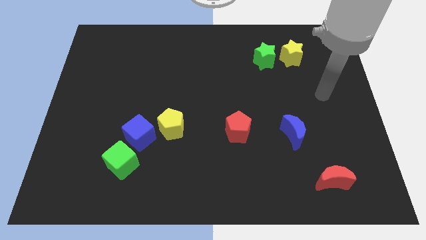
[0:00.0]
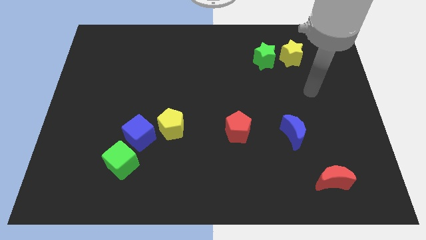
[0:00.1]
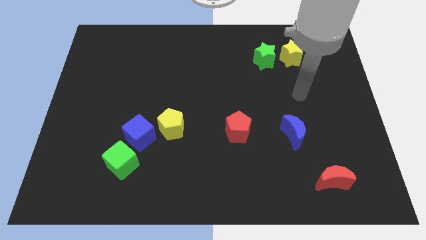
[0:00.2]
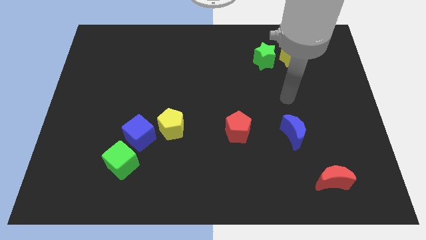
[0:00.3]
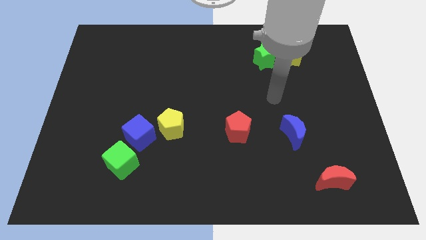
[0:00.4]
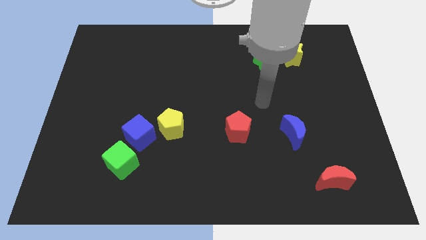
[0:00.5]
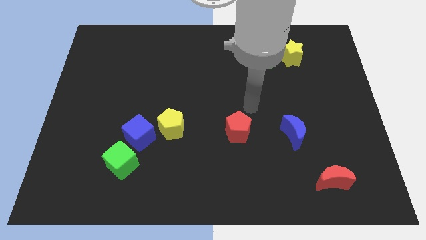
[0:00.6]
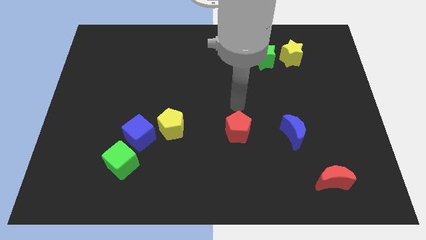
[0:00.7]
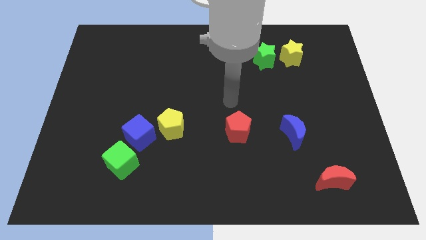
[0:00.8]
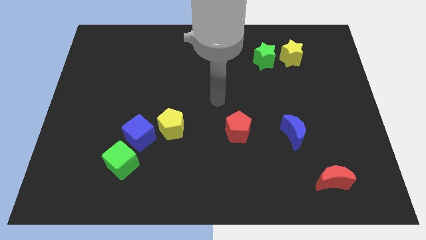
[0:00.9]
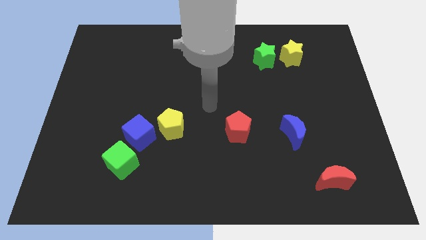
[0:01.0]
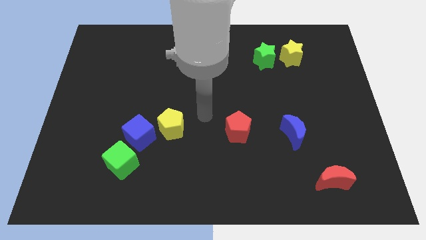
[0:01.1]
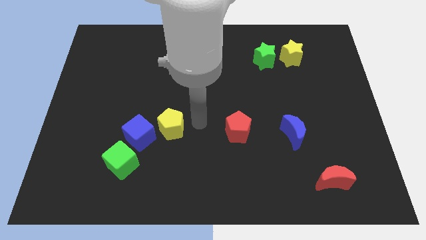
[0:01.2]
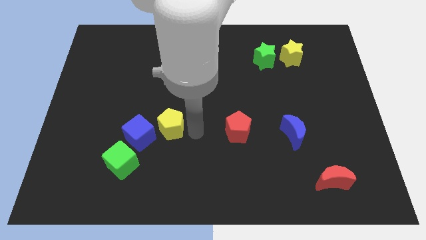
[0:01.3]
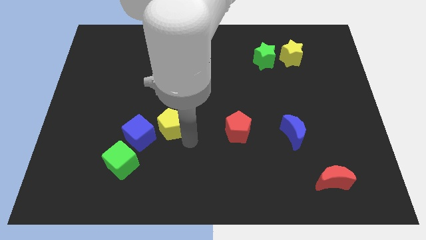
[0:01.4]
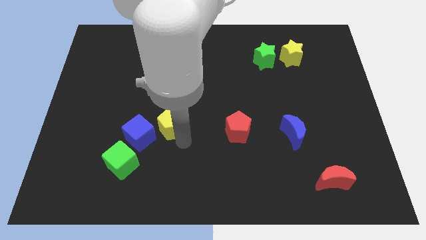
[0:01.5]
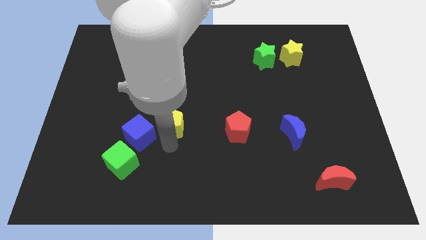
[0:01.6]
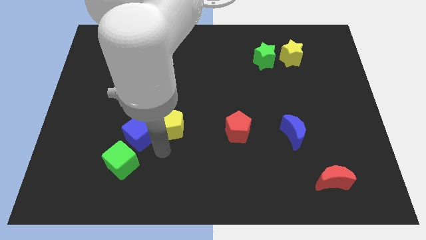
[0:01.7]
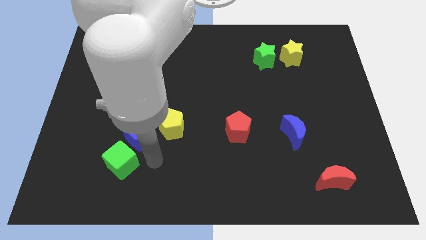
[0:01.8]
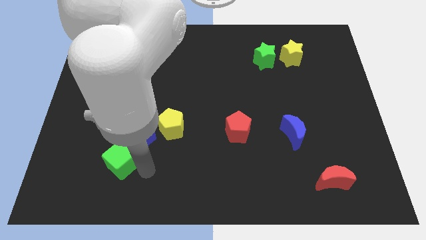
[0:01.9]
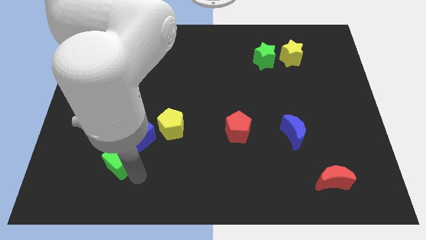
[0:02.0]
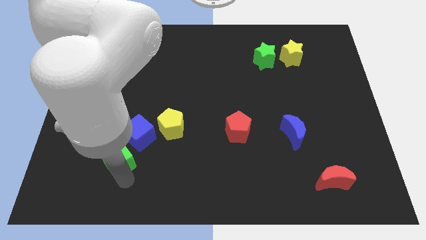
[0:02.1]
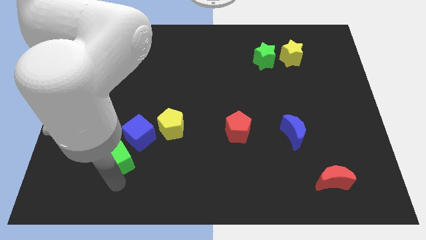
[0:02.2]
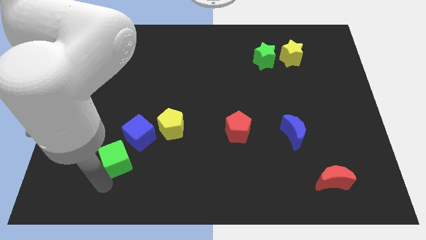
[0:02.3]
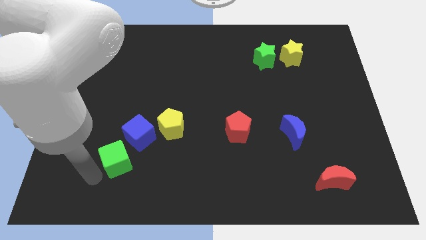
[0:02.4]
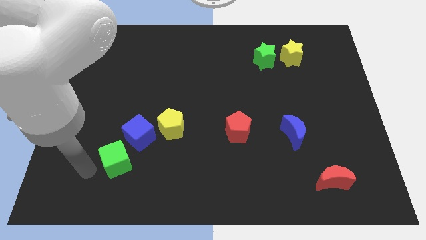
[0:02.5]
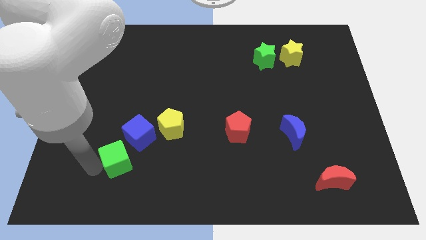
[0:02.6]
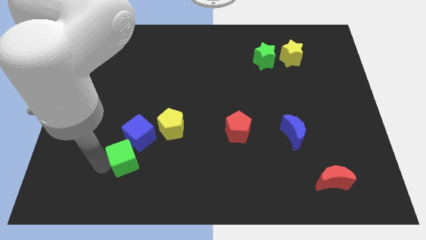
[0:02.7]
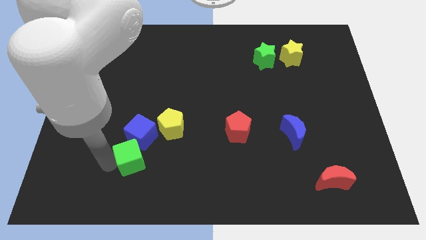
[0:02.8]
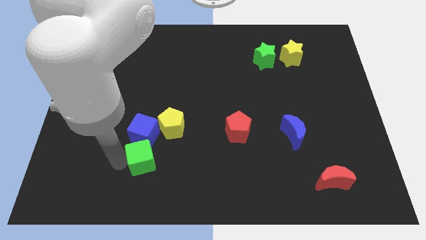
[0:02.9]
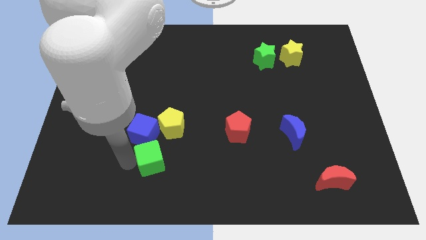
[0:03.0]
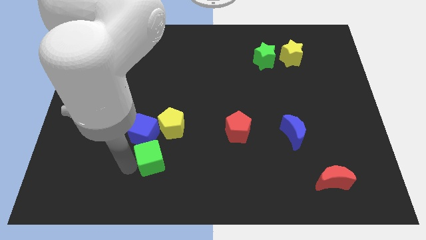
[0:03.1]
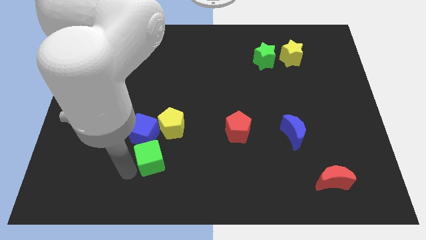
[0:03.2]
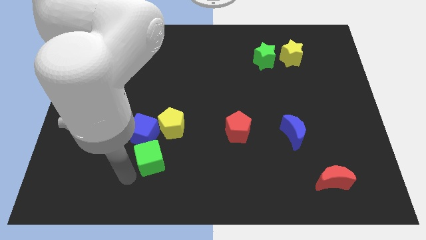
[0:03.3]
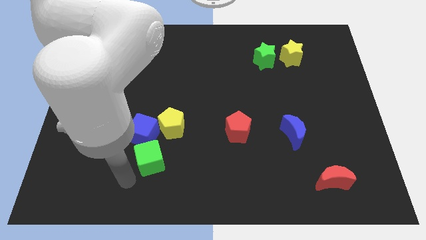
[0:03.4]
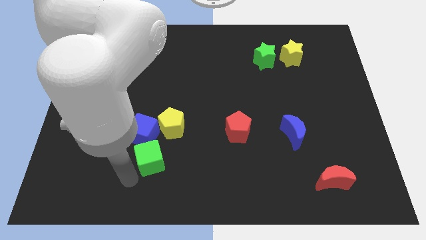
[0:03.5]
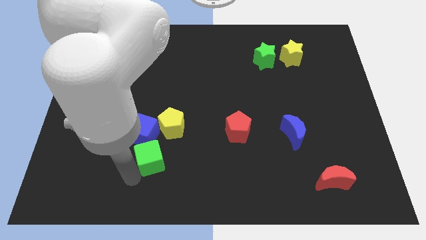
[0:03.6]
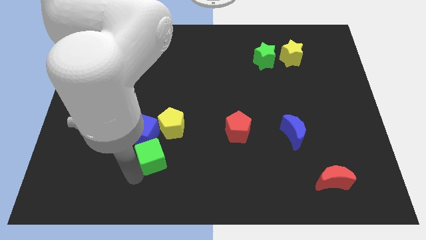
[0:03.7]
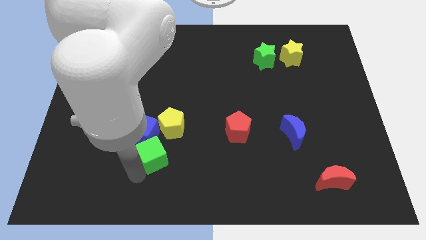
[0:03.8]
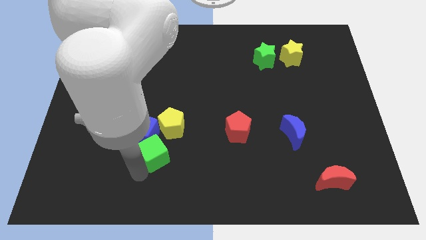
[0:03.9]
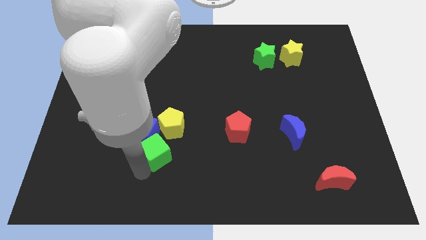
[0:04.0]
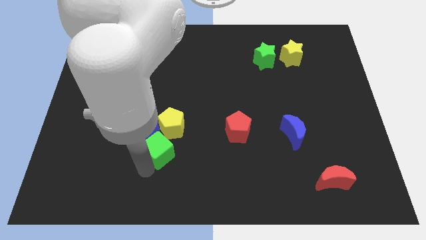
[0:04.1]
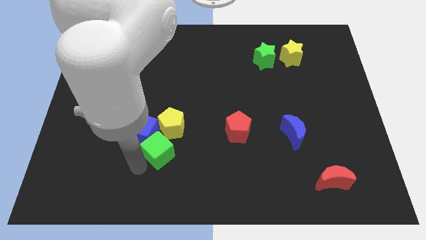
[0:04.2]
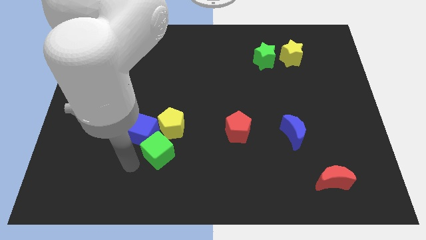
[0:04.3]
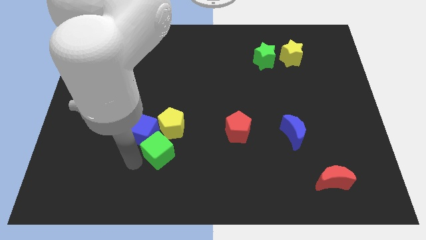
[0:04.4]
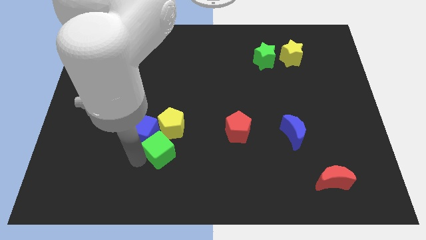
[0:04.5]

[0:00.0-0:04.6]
push the green cube a little upwards and then right

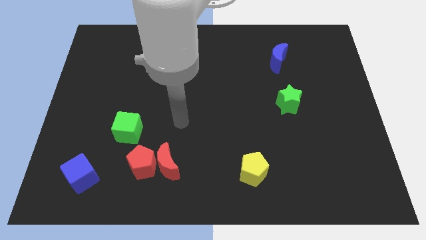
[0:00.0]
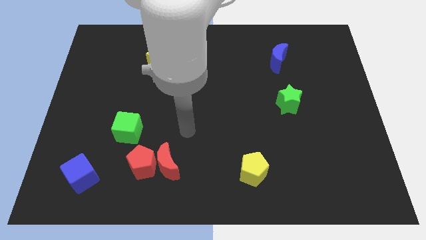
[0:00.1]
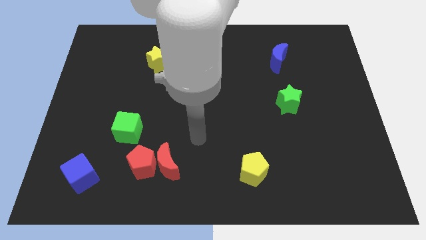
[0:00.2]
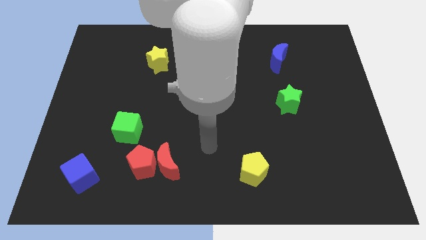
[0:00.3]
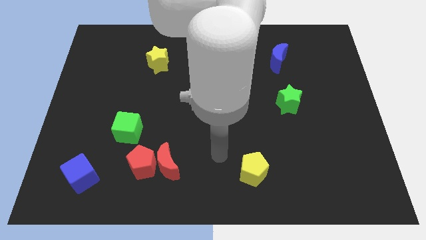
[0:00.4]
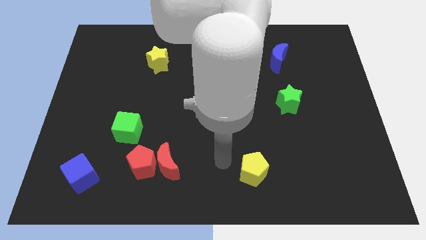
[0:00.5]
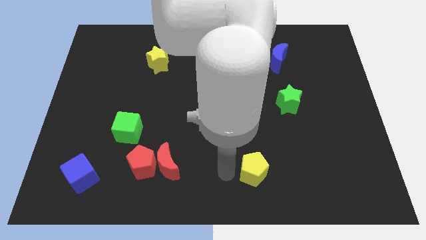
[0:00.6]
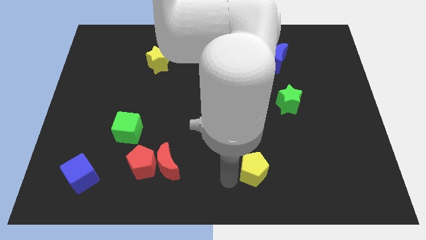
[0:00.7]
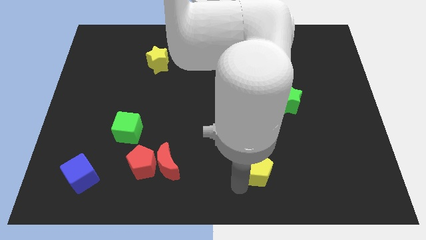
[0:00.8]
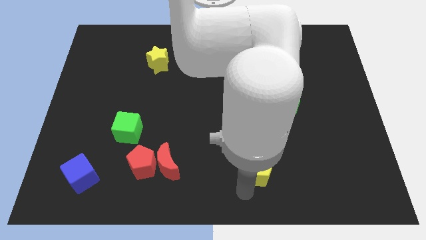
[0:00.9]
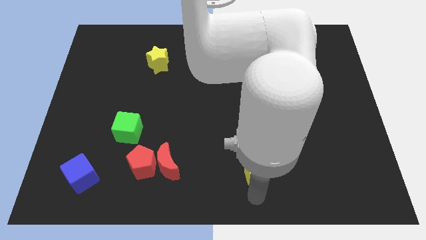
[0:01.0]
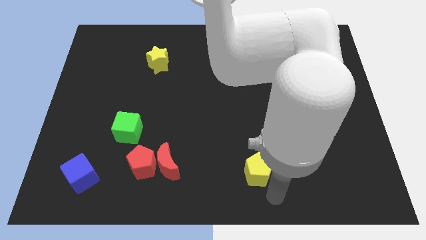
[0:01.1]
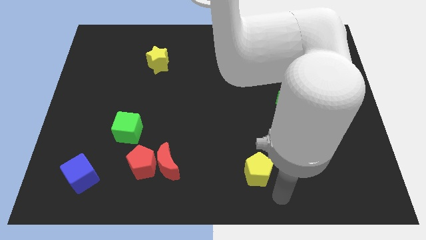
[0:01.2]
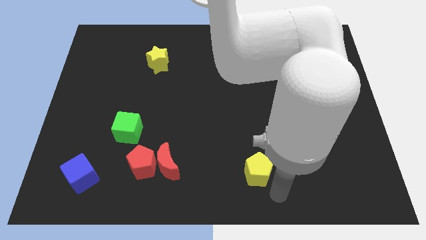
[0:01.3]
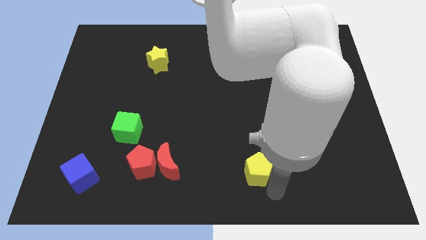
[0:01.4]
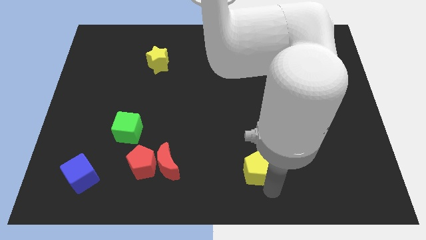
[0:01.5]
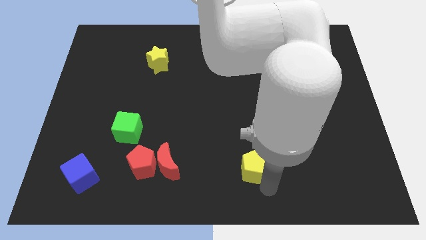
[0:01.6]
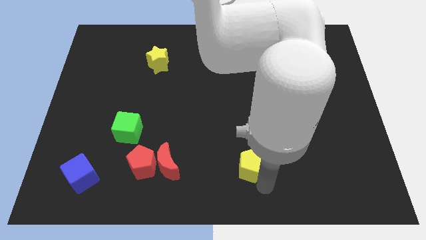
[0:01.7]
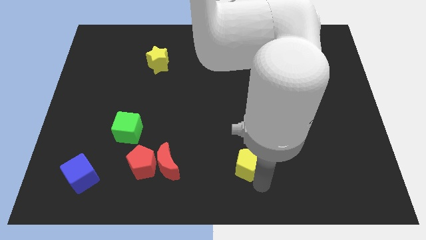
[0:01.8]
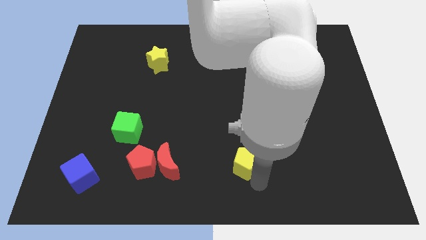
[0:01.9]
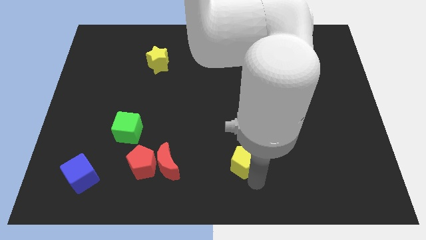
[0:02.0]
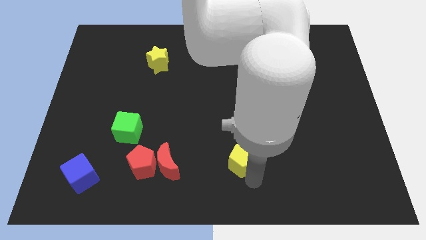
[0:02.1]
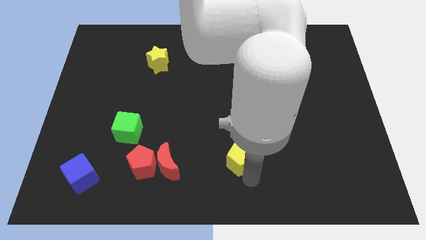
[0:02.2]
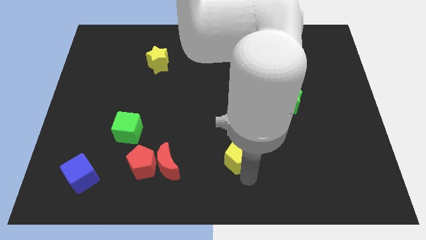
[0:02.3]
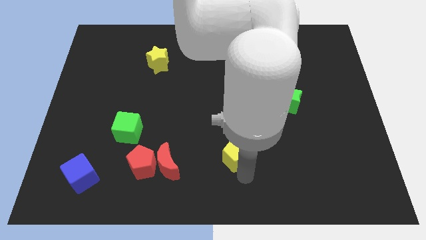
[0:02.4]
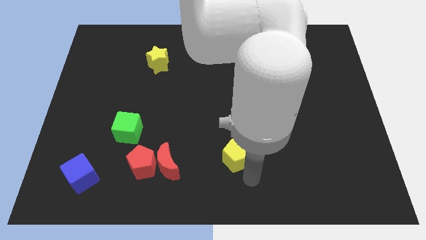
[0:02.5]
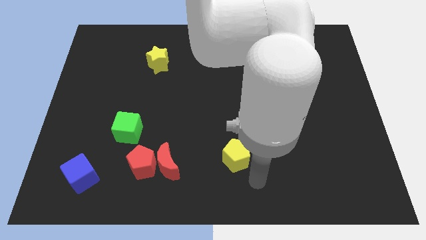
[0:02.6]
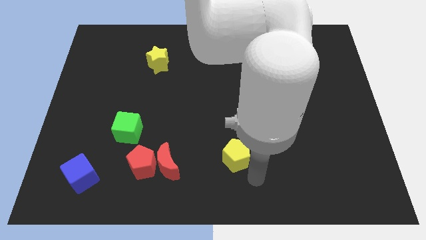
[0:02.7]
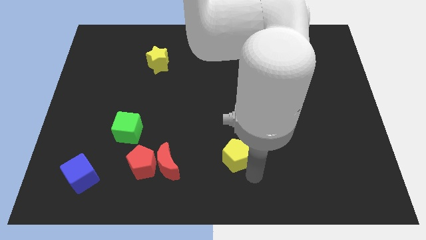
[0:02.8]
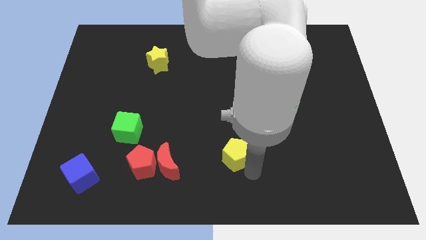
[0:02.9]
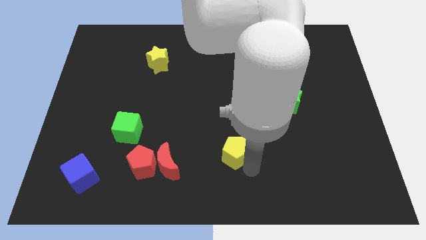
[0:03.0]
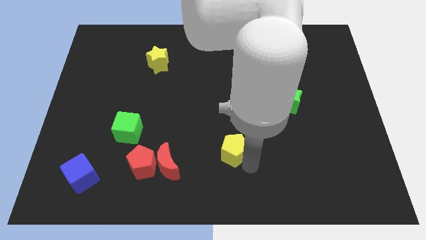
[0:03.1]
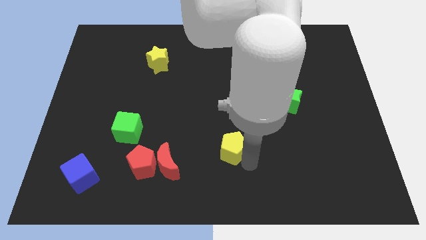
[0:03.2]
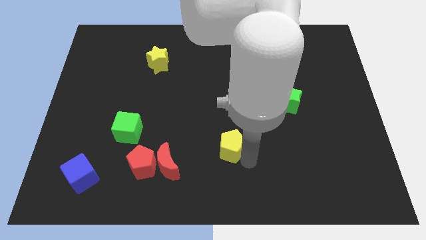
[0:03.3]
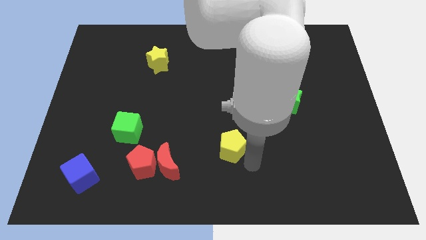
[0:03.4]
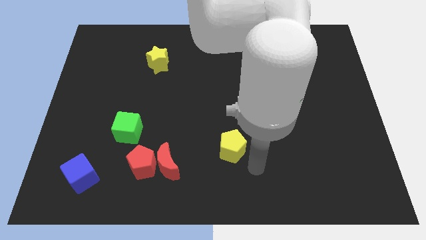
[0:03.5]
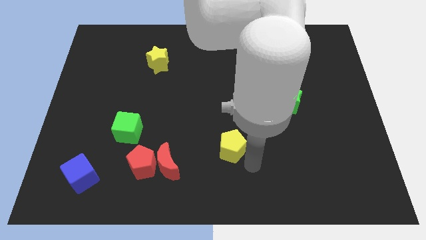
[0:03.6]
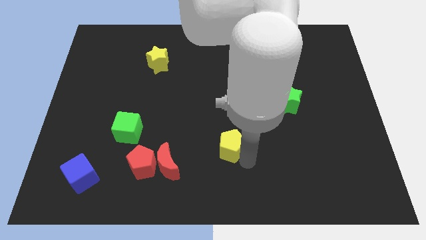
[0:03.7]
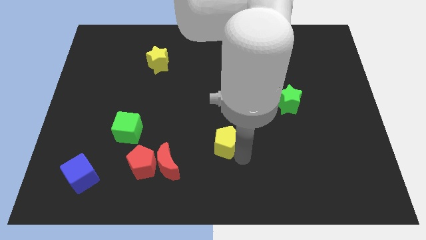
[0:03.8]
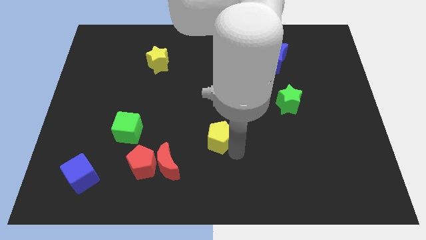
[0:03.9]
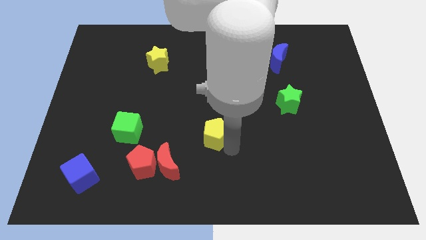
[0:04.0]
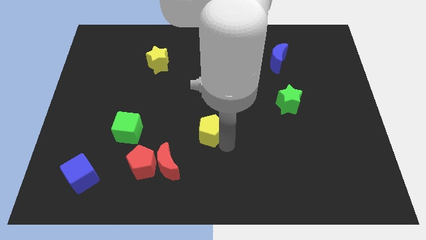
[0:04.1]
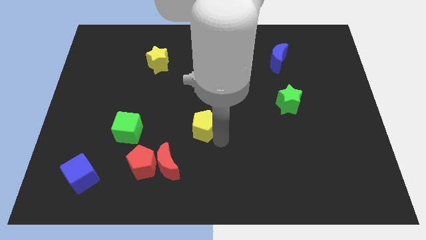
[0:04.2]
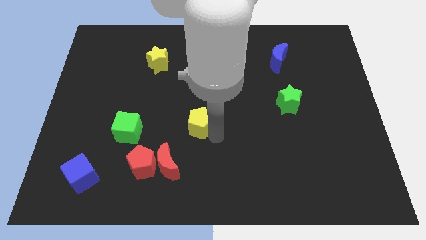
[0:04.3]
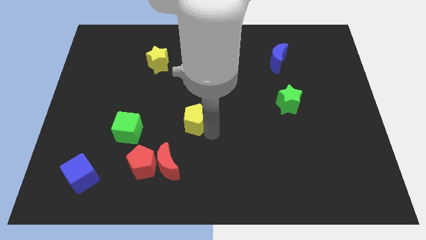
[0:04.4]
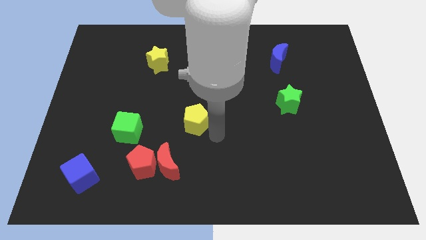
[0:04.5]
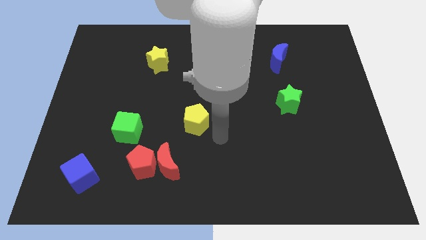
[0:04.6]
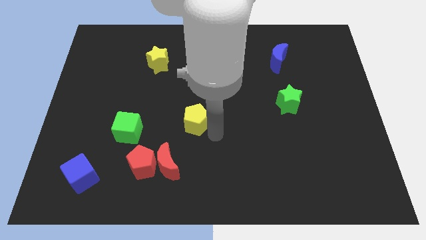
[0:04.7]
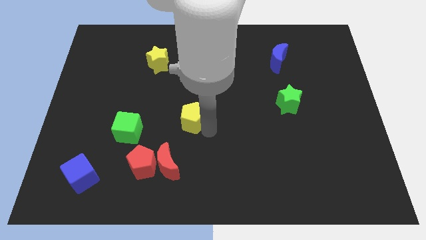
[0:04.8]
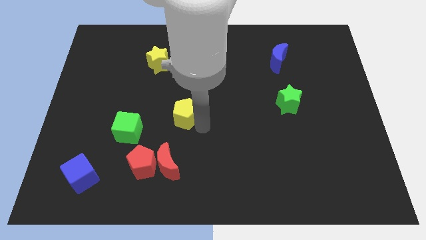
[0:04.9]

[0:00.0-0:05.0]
push the yellow pentagon diagonally upwards and left
